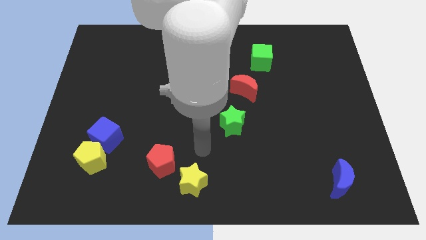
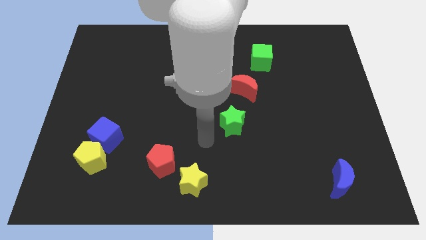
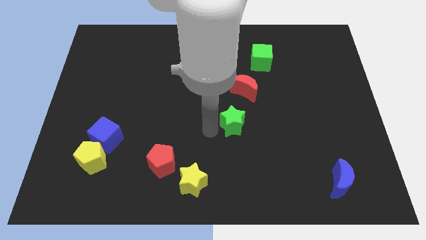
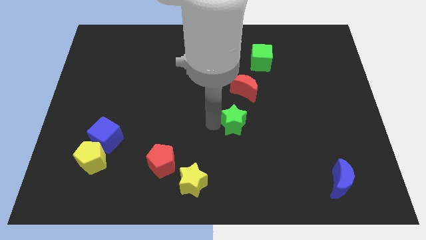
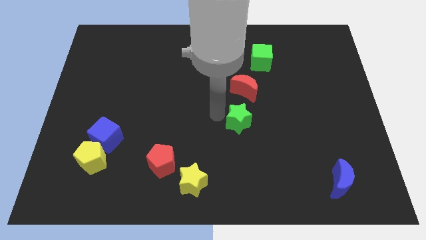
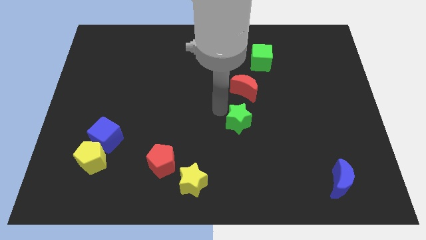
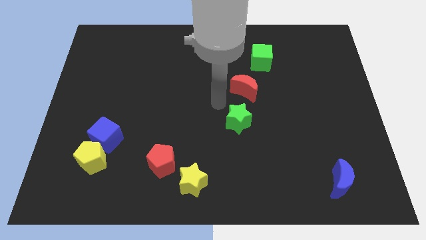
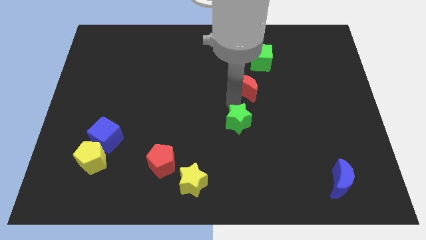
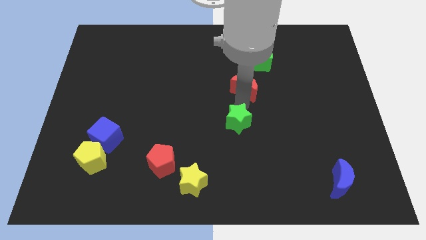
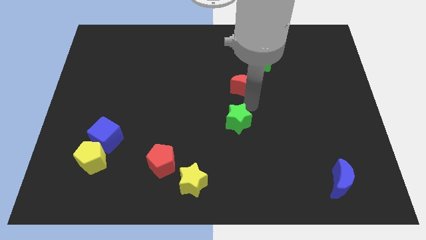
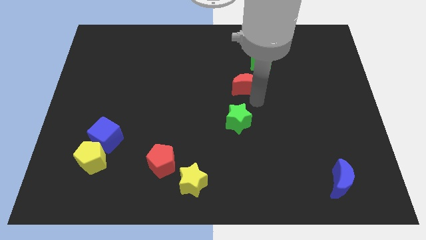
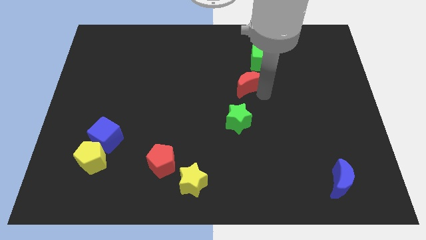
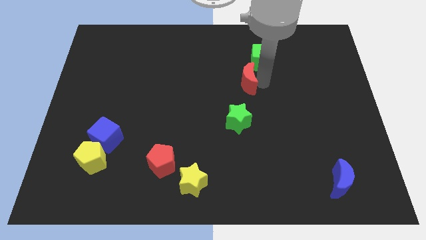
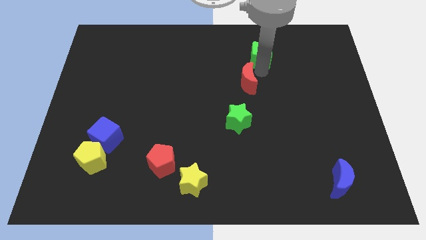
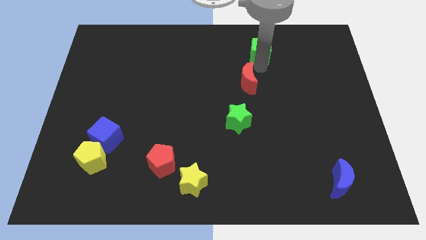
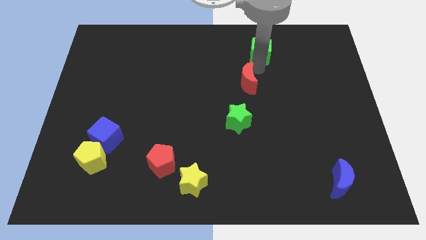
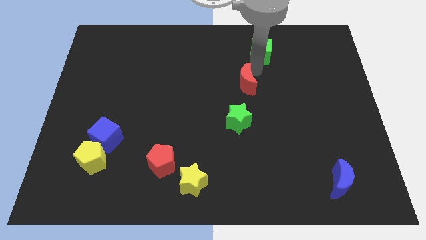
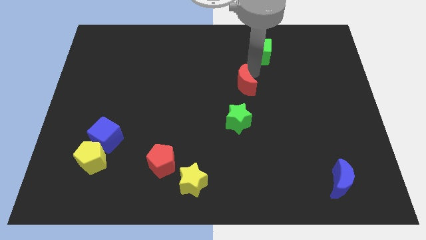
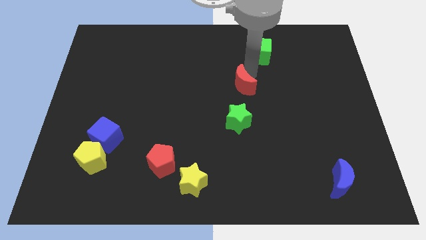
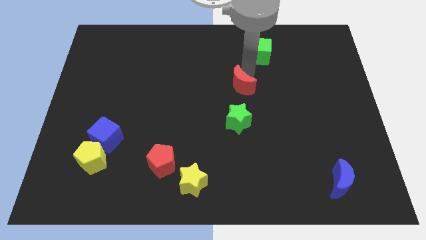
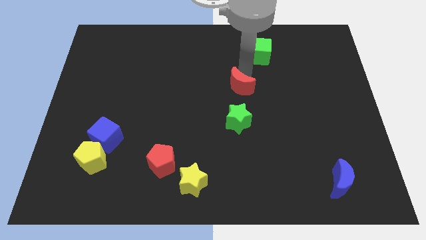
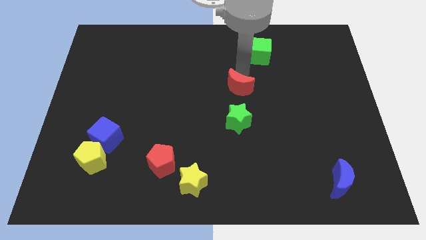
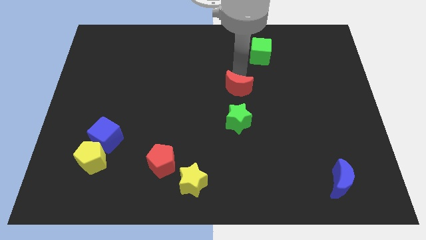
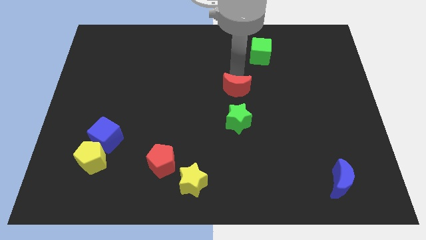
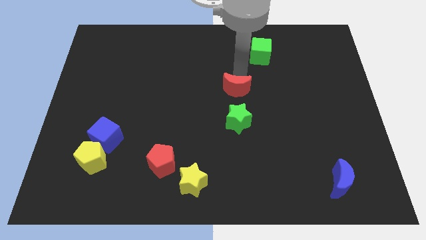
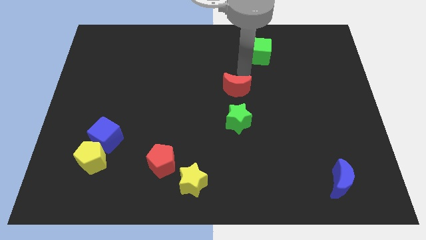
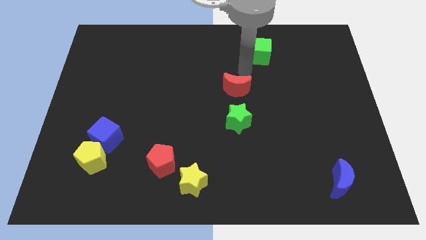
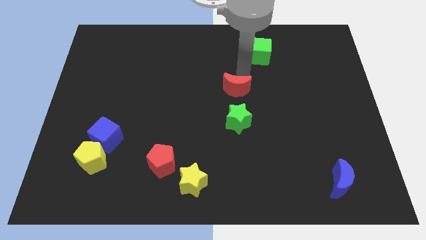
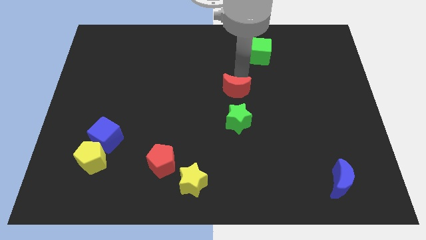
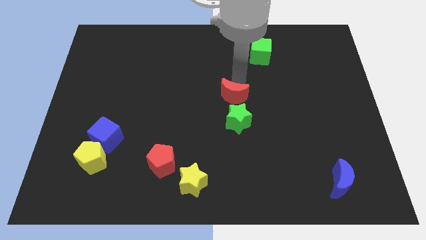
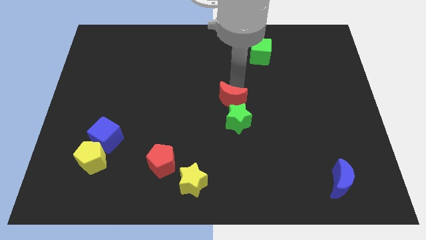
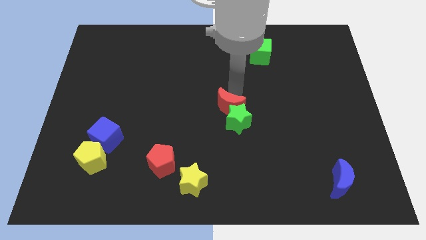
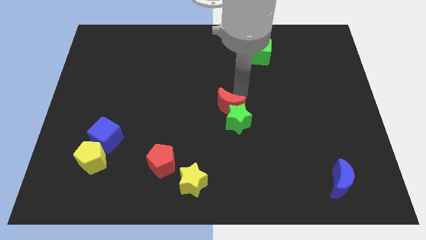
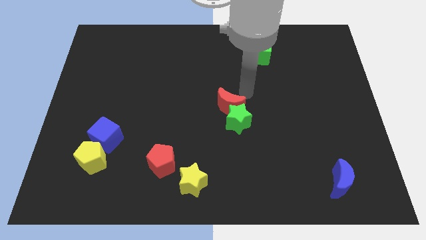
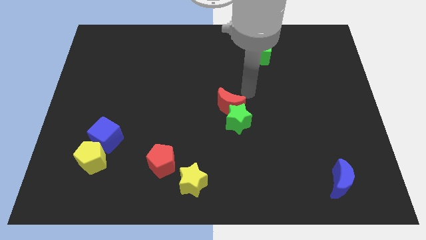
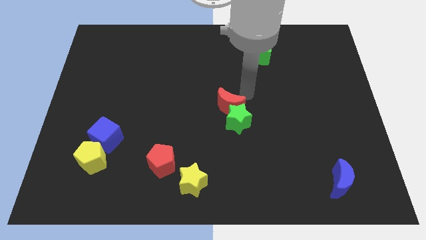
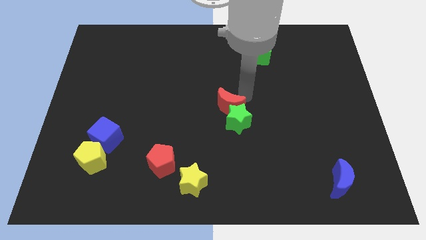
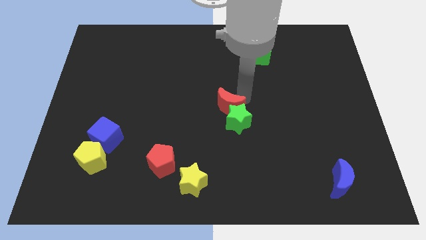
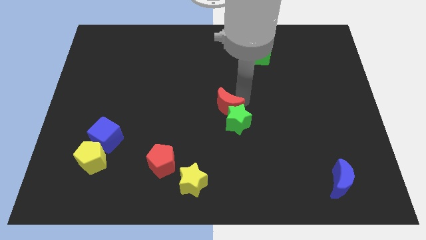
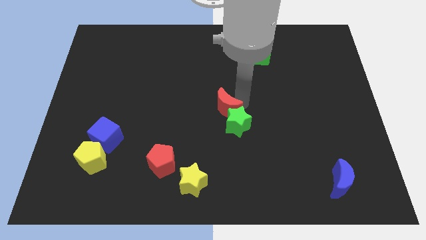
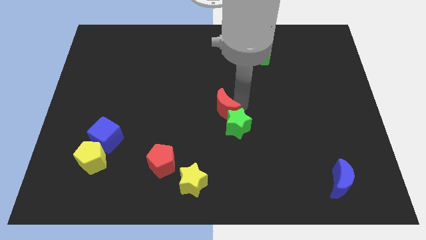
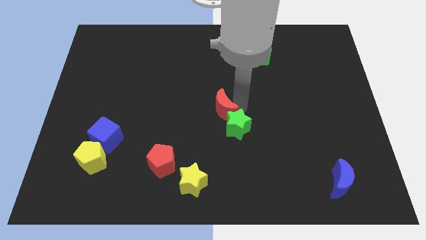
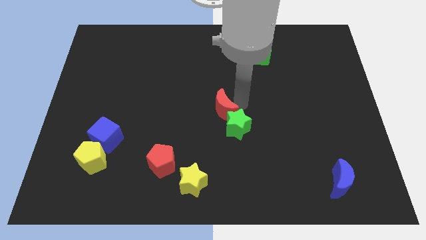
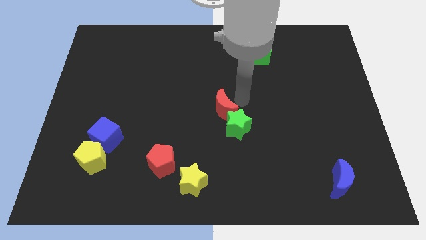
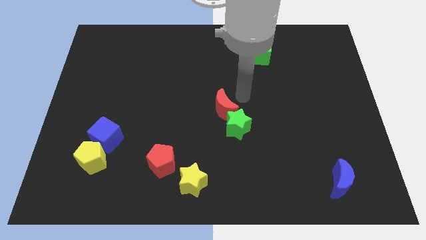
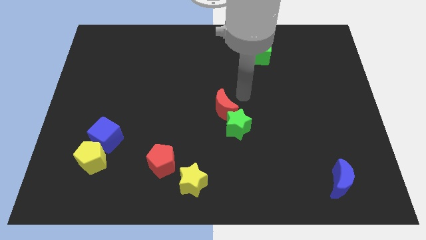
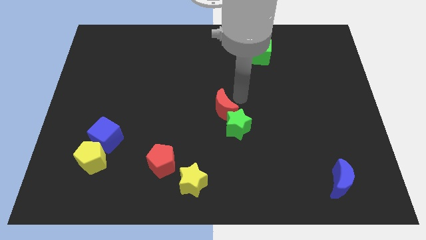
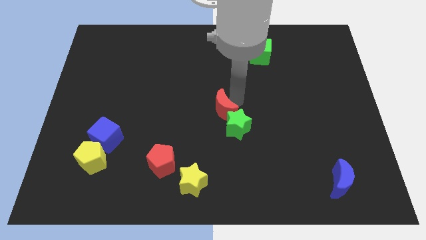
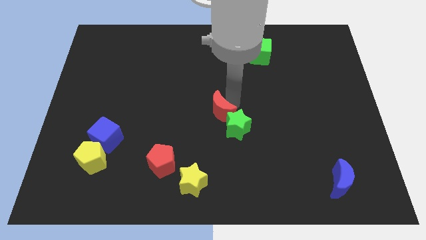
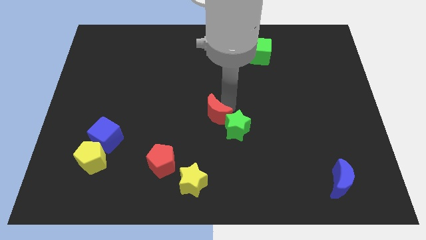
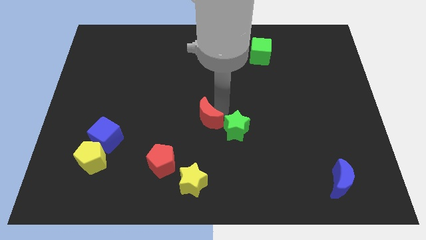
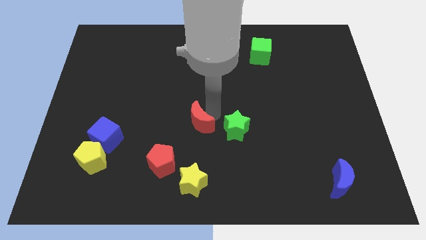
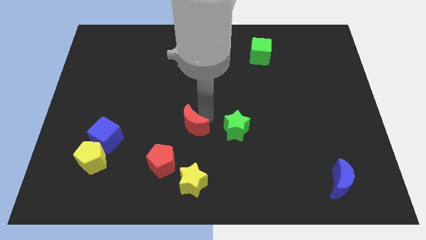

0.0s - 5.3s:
slide the red moon diagonally up and to the right of the red pentagon

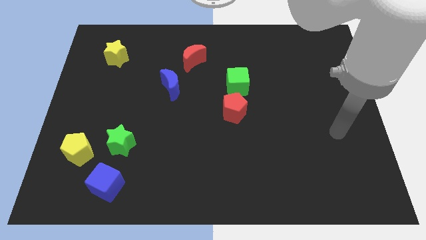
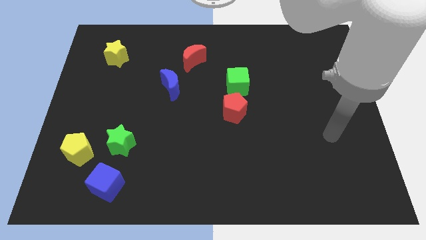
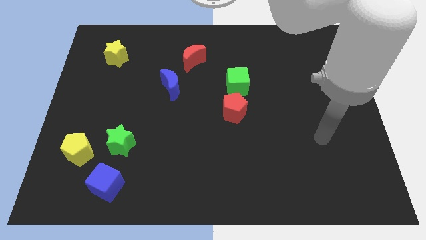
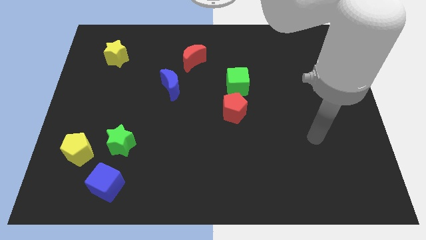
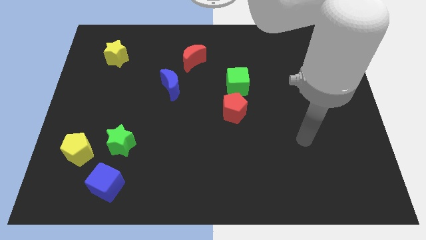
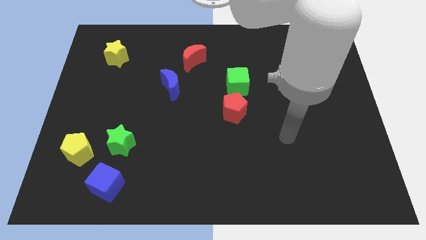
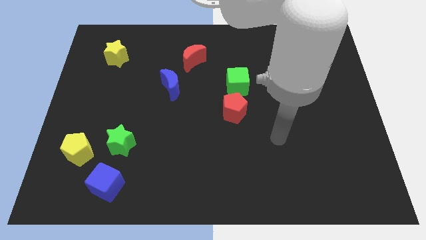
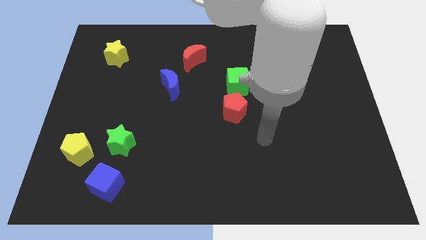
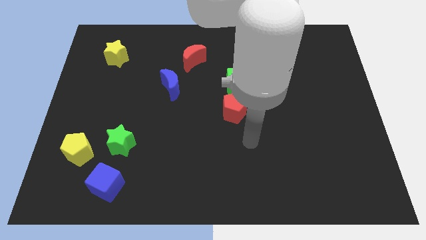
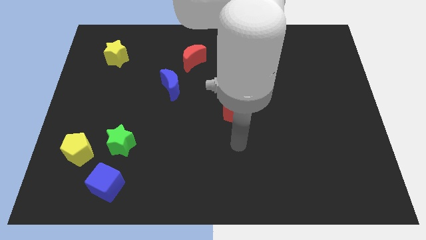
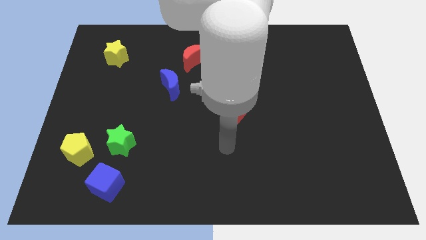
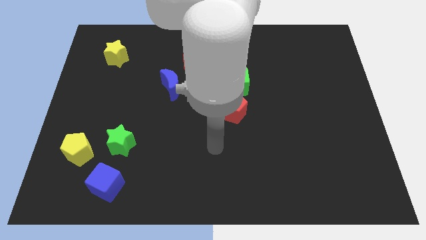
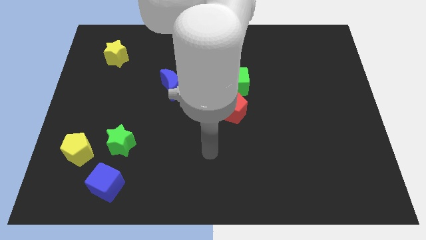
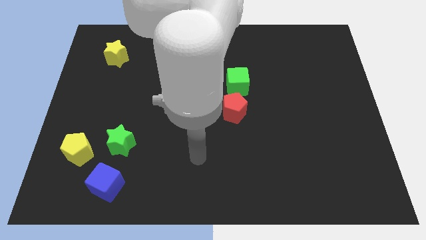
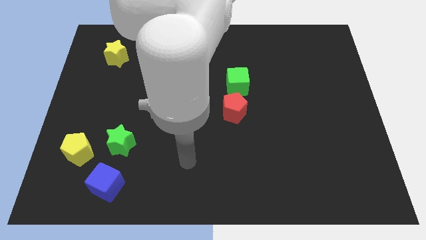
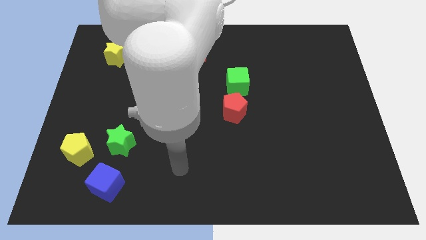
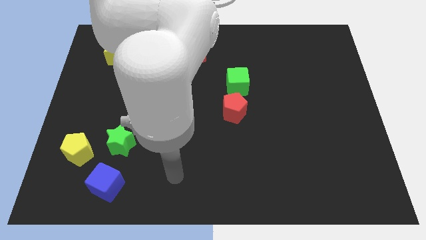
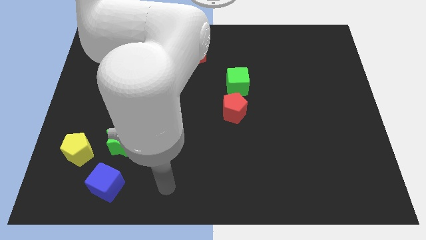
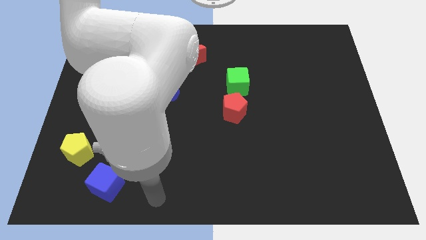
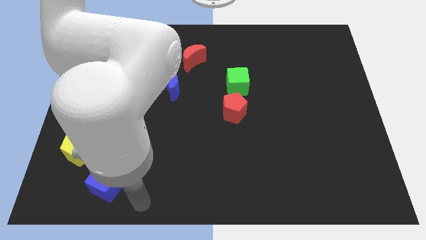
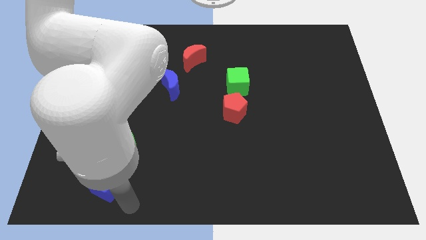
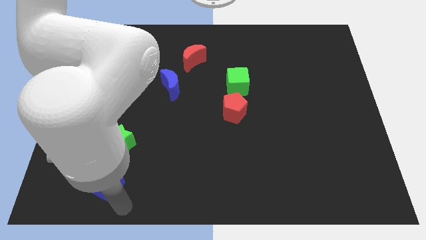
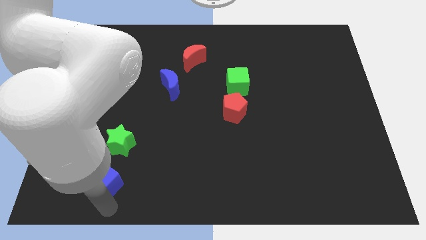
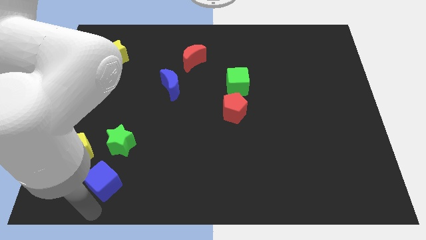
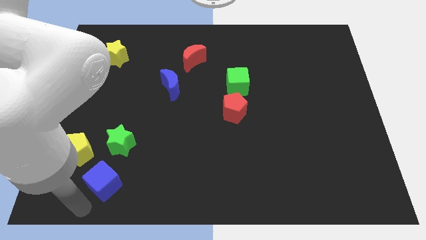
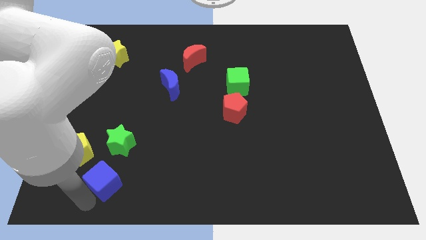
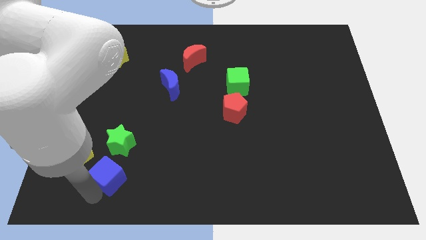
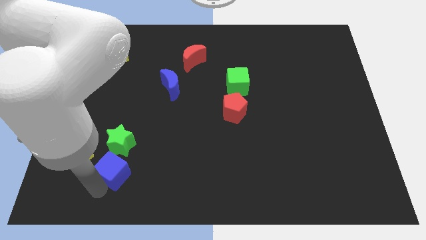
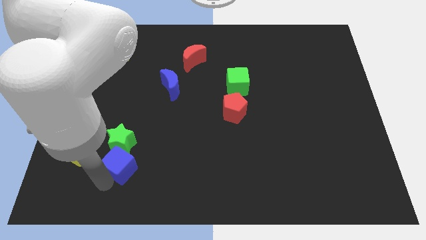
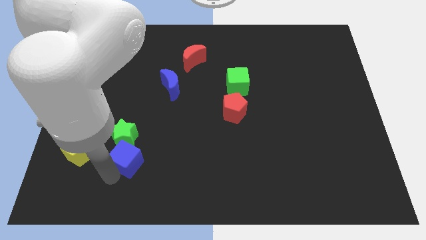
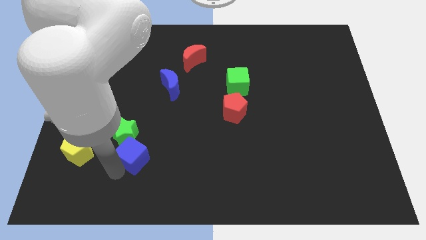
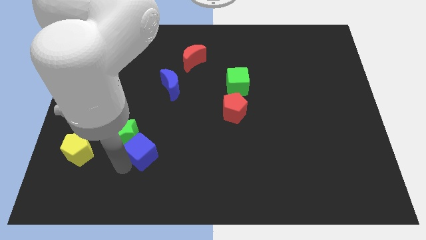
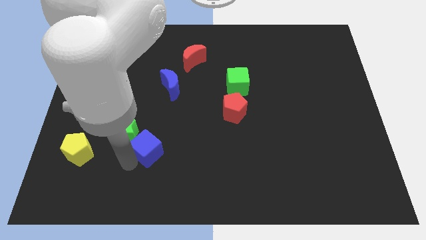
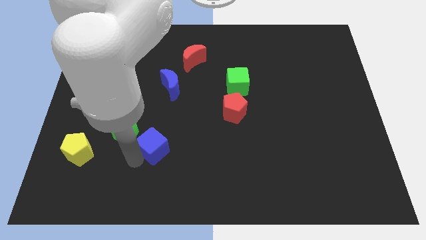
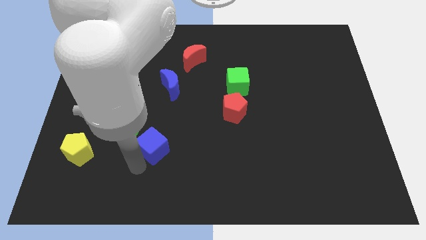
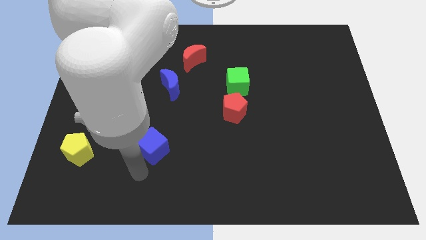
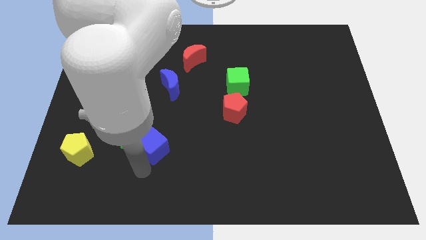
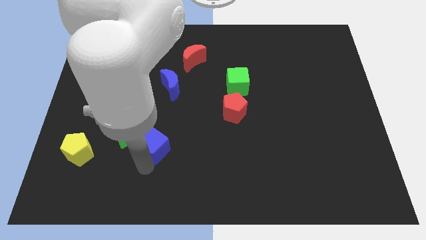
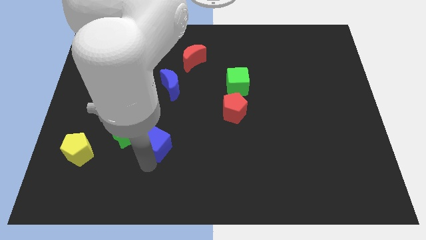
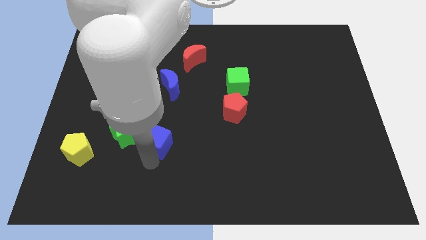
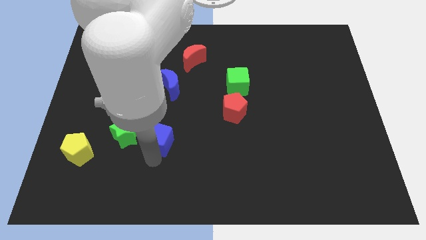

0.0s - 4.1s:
push the blue cube below the blue moon
